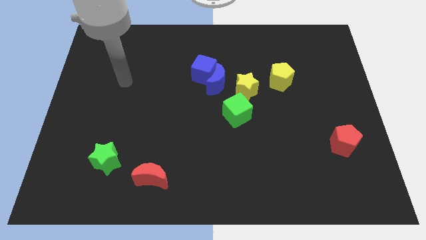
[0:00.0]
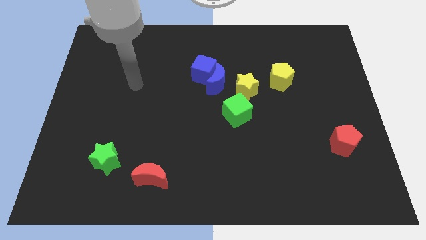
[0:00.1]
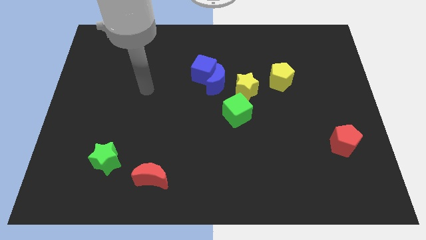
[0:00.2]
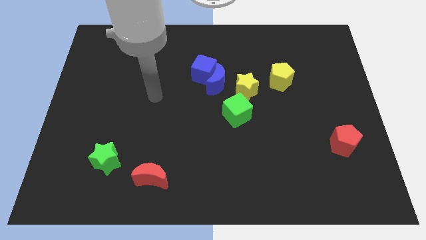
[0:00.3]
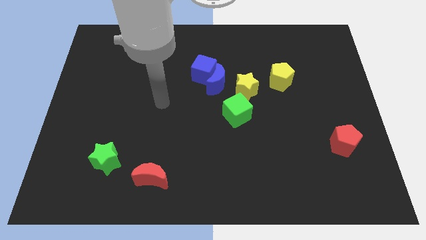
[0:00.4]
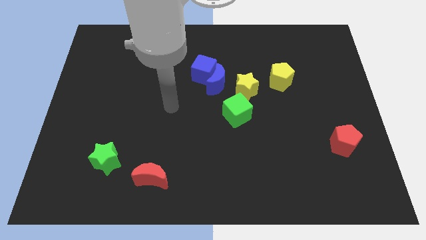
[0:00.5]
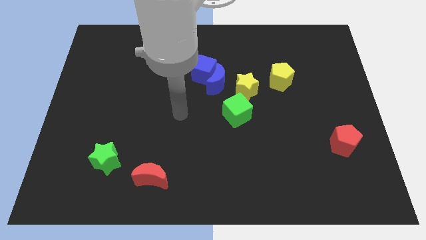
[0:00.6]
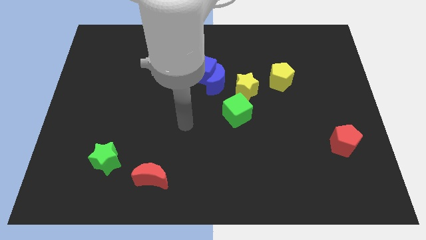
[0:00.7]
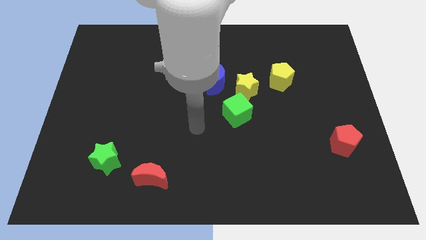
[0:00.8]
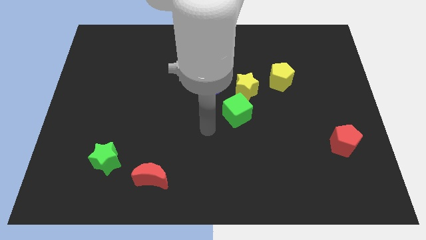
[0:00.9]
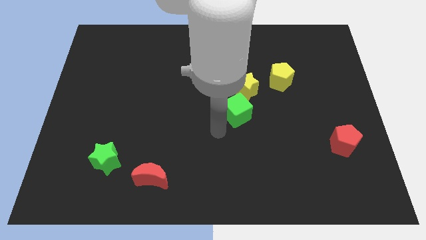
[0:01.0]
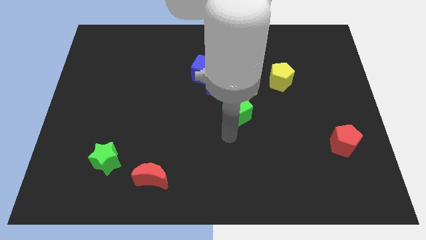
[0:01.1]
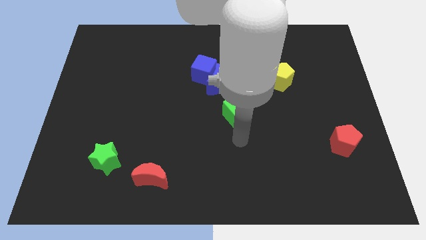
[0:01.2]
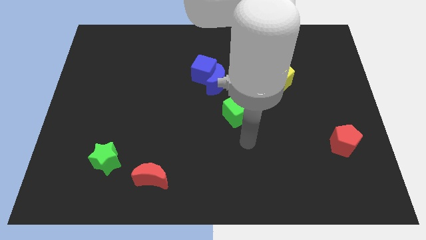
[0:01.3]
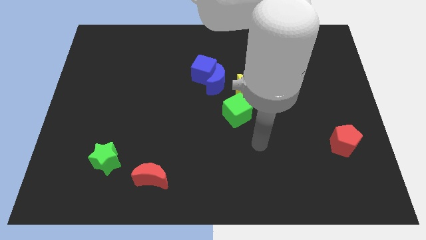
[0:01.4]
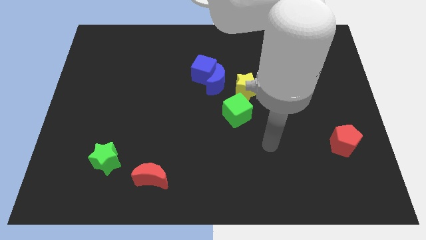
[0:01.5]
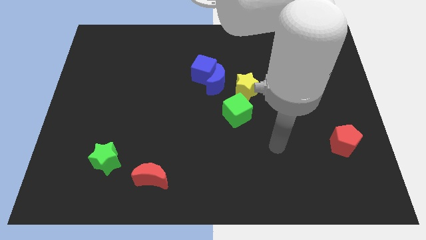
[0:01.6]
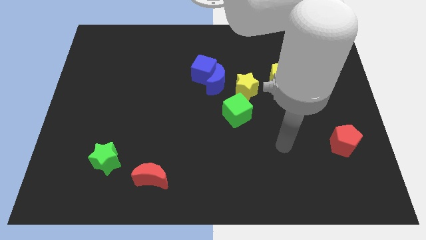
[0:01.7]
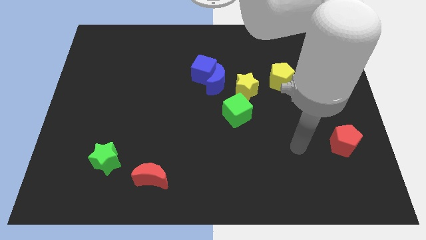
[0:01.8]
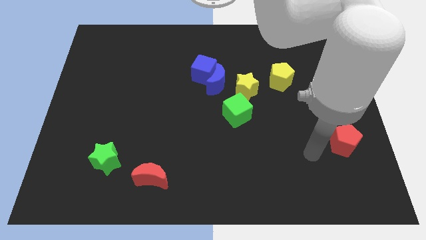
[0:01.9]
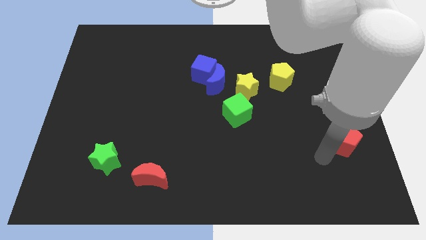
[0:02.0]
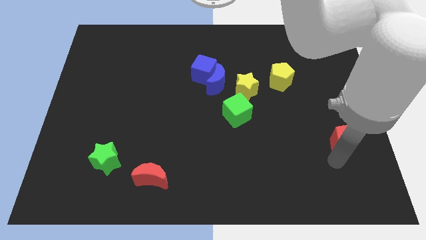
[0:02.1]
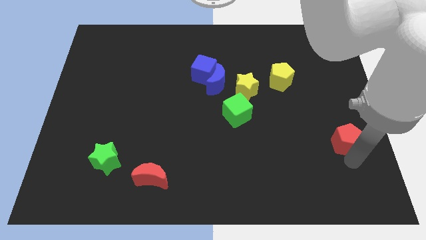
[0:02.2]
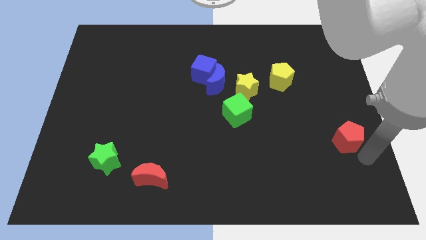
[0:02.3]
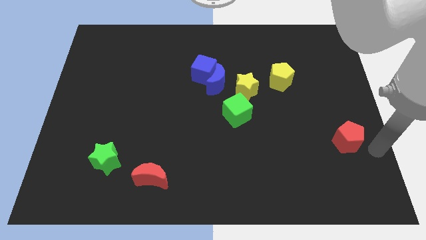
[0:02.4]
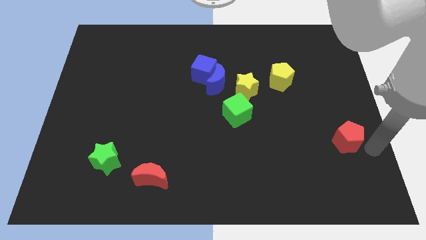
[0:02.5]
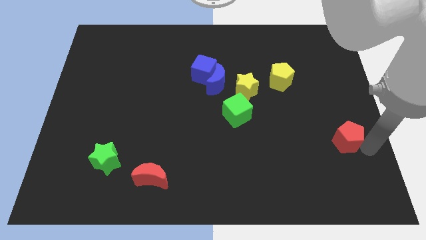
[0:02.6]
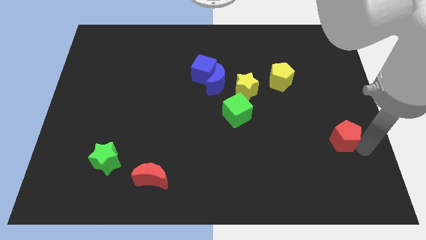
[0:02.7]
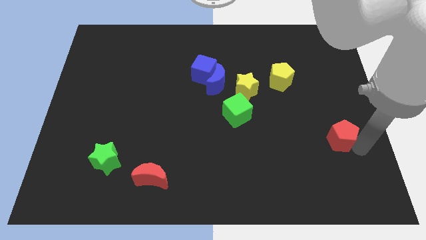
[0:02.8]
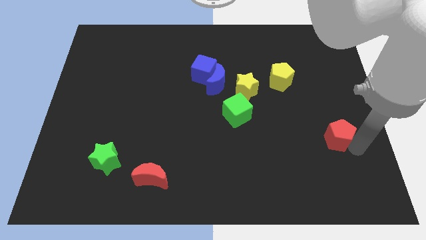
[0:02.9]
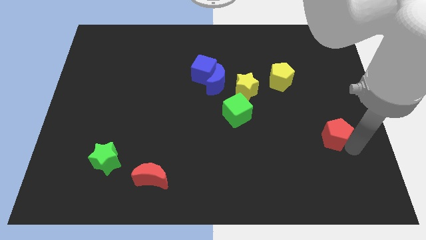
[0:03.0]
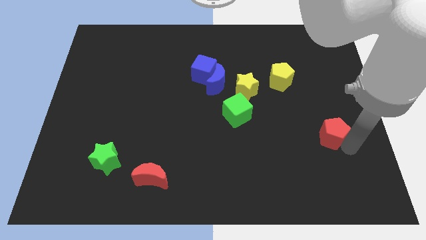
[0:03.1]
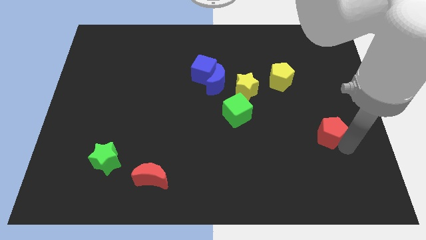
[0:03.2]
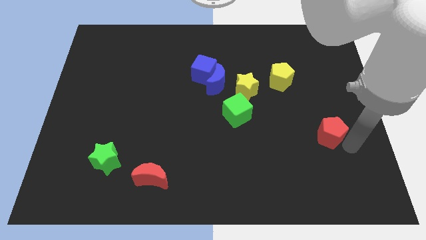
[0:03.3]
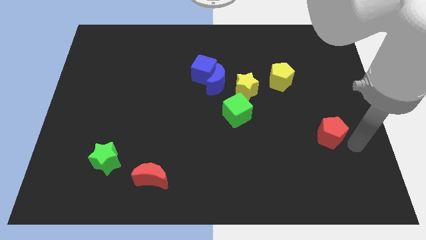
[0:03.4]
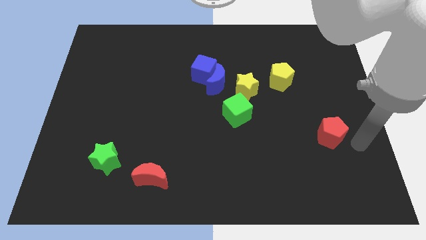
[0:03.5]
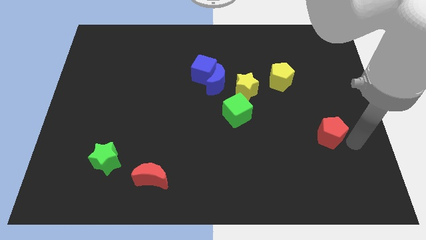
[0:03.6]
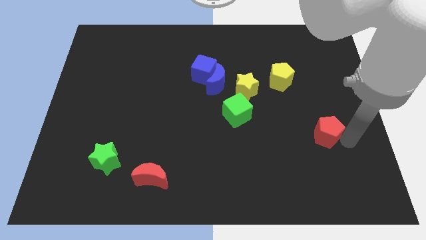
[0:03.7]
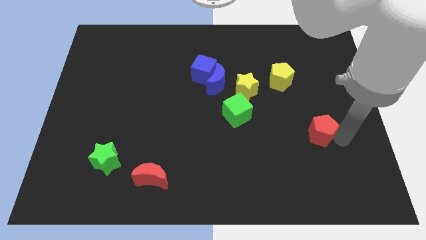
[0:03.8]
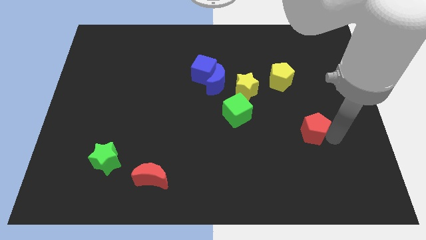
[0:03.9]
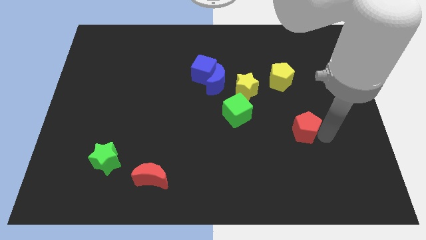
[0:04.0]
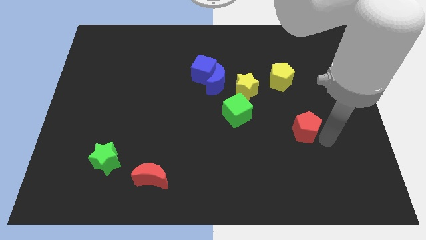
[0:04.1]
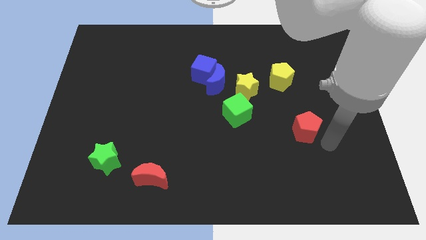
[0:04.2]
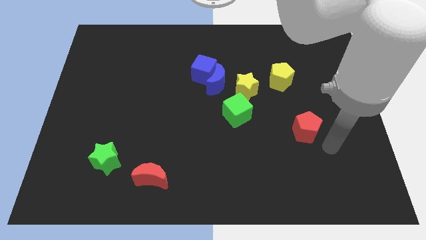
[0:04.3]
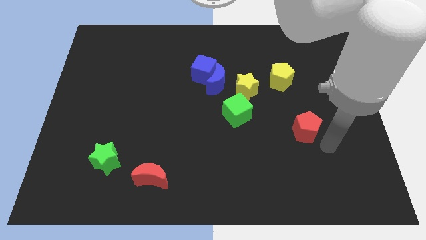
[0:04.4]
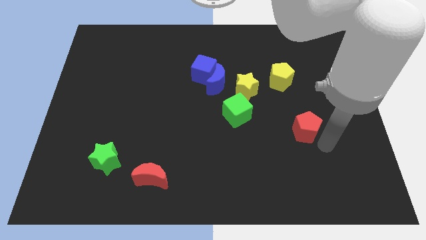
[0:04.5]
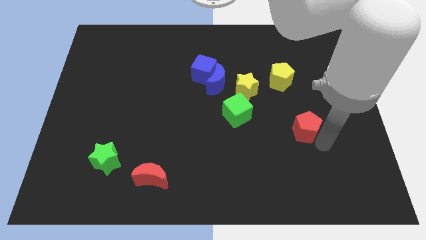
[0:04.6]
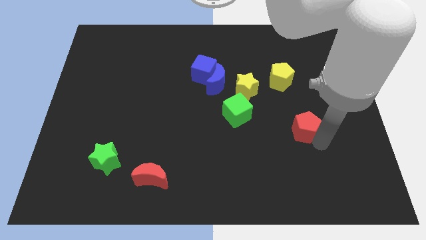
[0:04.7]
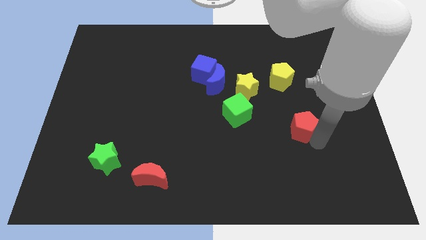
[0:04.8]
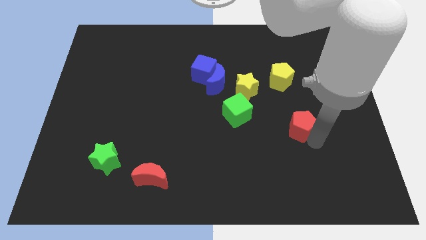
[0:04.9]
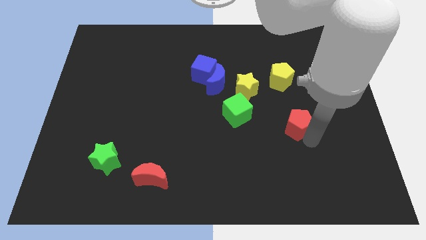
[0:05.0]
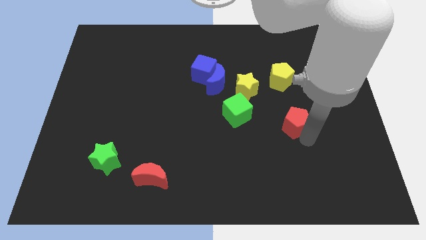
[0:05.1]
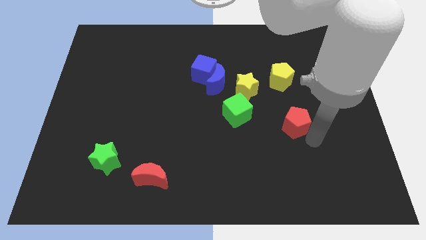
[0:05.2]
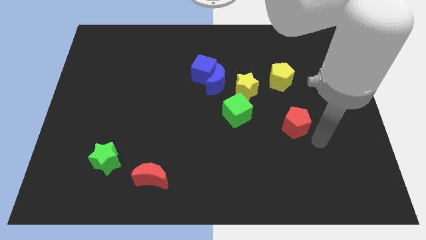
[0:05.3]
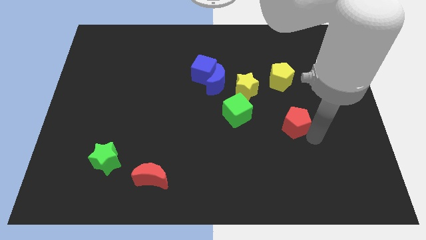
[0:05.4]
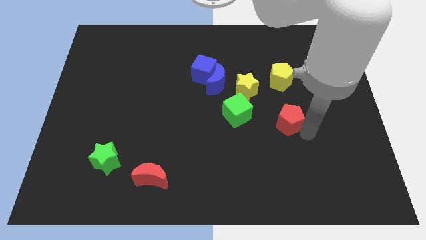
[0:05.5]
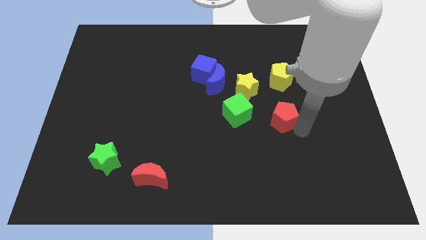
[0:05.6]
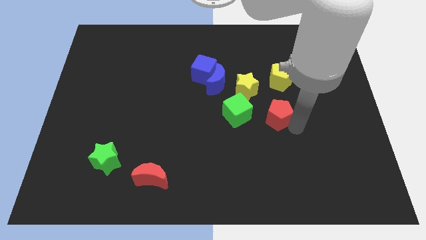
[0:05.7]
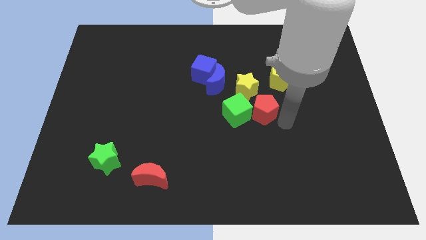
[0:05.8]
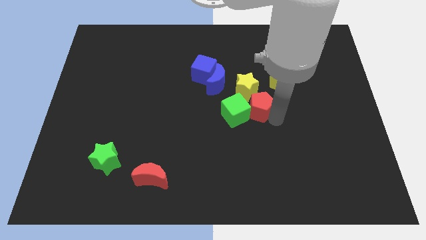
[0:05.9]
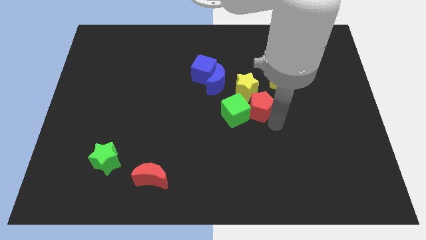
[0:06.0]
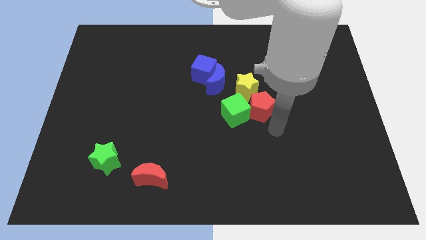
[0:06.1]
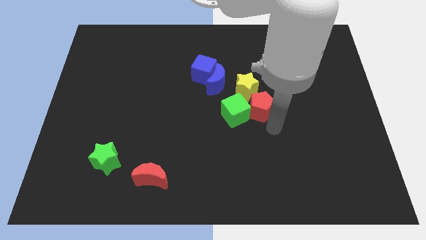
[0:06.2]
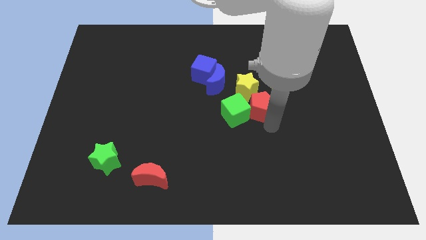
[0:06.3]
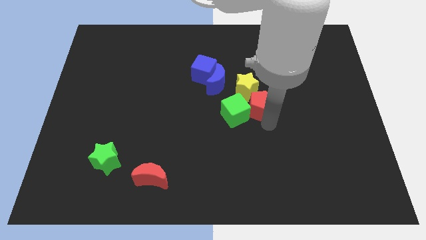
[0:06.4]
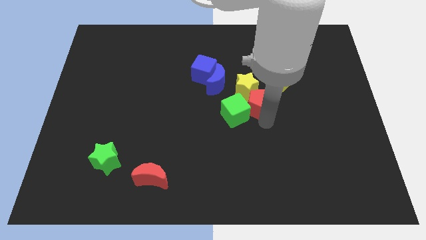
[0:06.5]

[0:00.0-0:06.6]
slide the red pentagon close to the yellow star
